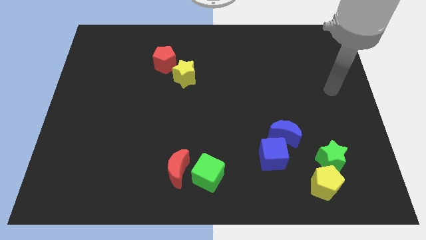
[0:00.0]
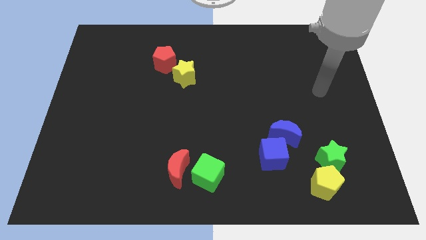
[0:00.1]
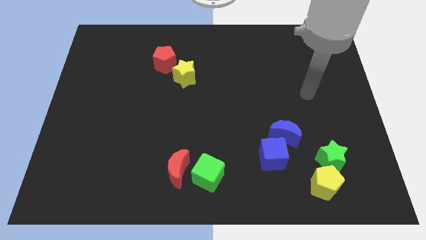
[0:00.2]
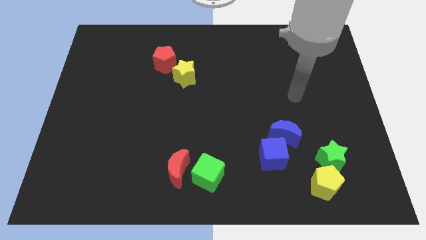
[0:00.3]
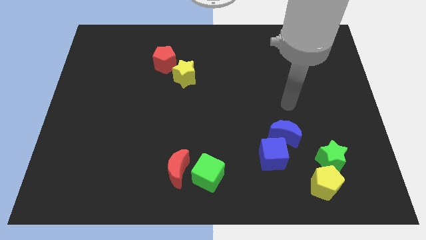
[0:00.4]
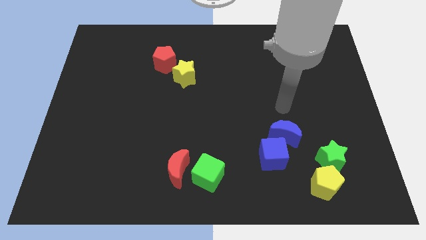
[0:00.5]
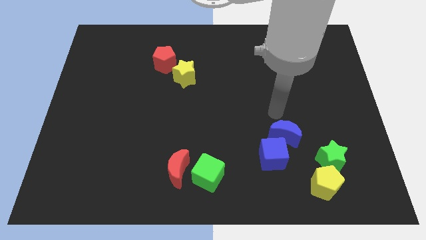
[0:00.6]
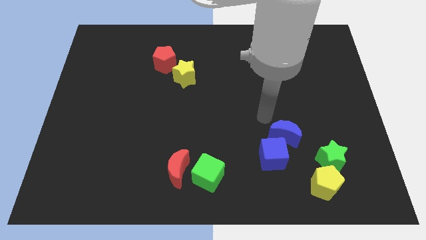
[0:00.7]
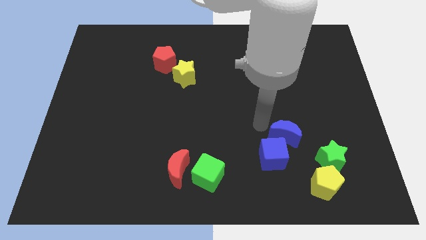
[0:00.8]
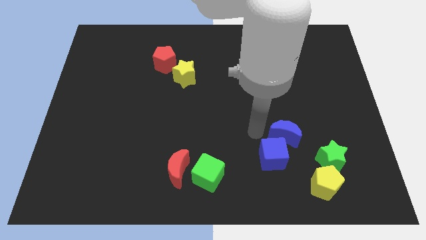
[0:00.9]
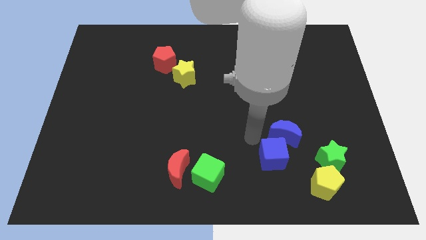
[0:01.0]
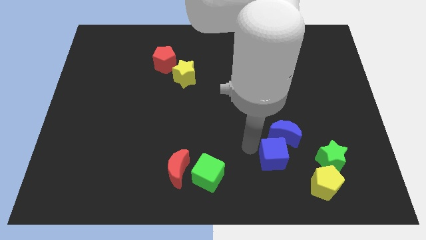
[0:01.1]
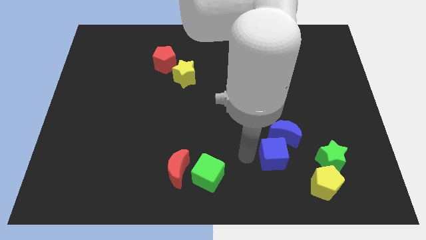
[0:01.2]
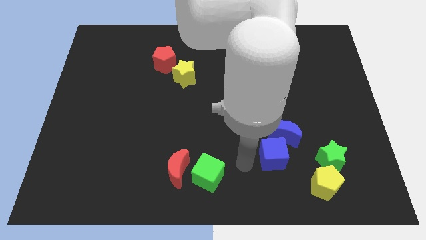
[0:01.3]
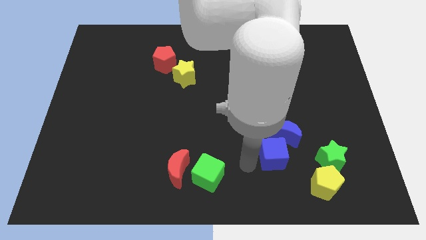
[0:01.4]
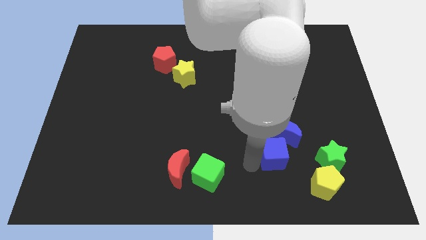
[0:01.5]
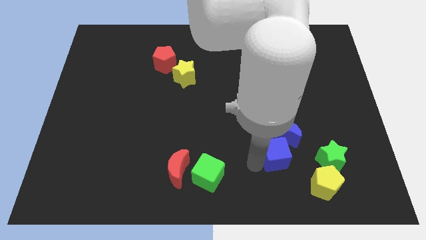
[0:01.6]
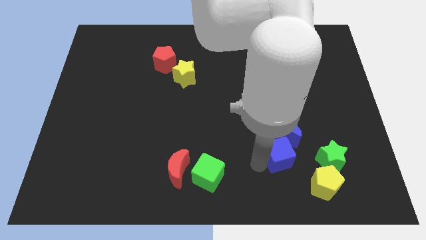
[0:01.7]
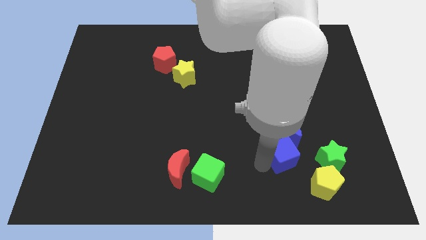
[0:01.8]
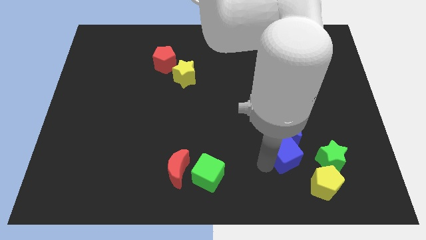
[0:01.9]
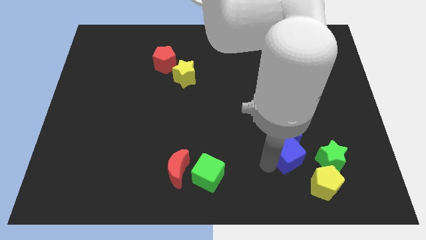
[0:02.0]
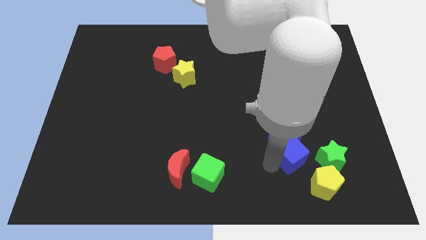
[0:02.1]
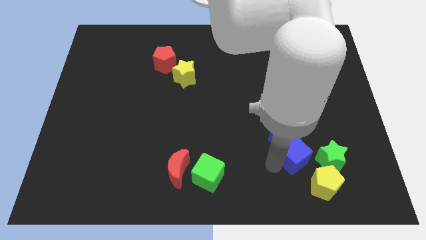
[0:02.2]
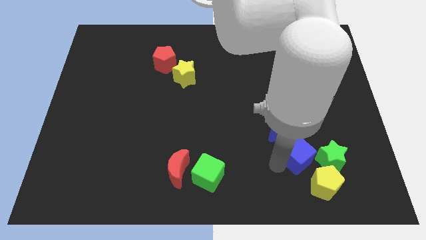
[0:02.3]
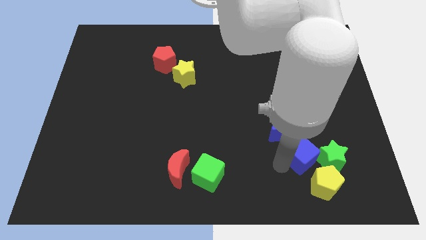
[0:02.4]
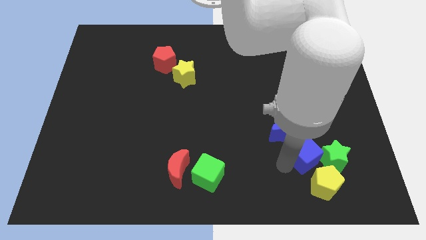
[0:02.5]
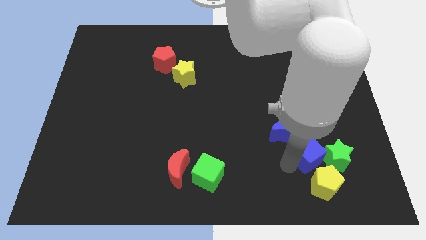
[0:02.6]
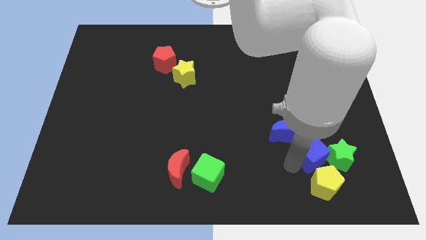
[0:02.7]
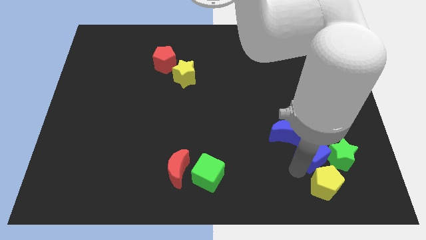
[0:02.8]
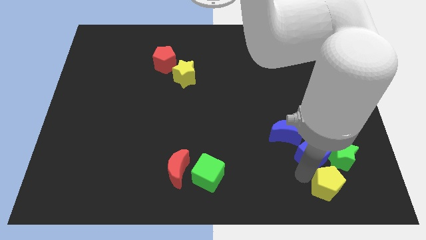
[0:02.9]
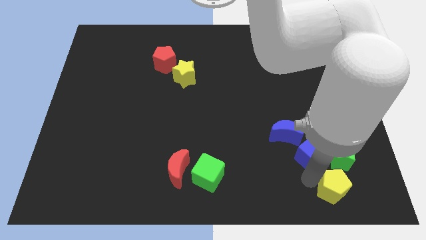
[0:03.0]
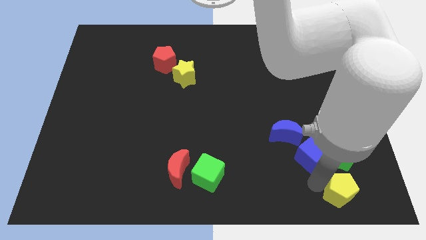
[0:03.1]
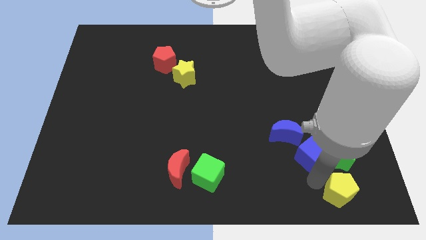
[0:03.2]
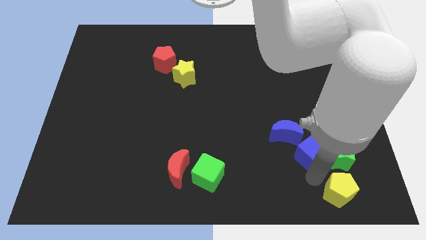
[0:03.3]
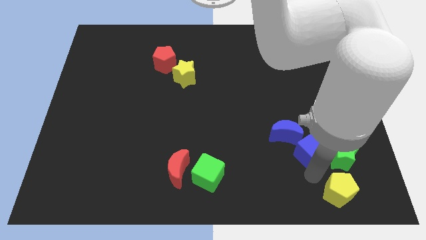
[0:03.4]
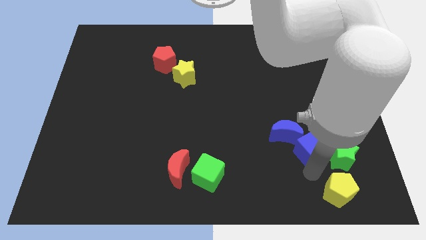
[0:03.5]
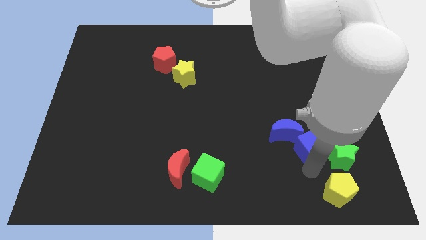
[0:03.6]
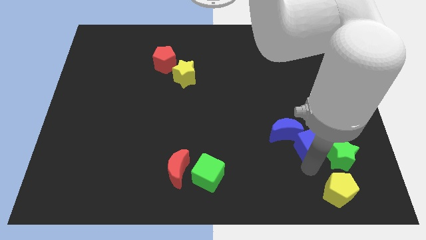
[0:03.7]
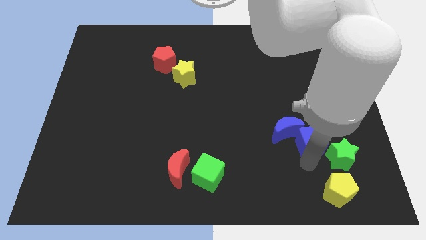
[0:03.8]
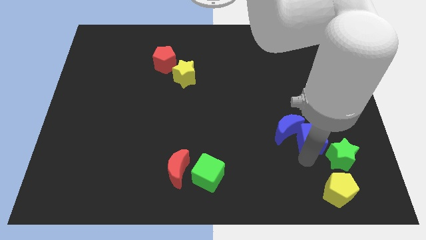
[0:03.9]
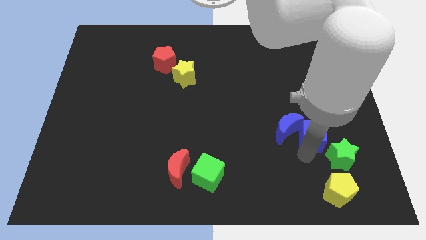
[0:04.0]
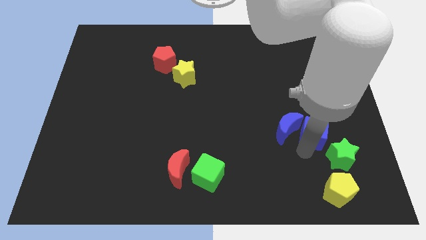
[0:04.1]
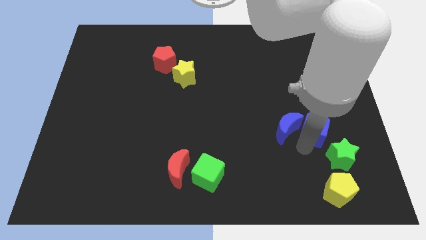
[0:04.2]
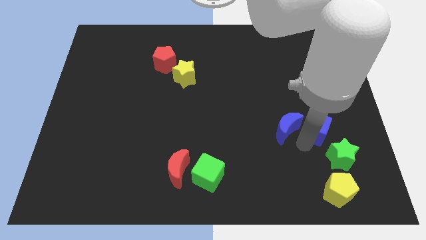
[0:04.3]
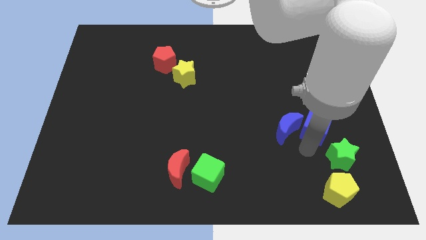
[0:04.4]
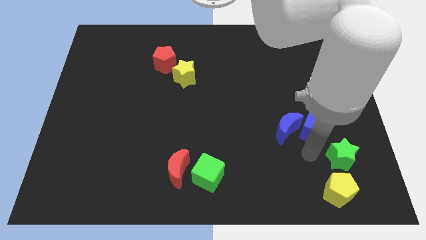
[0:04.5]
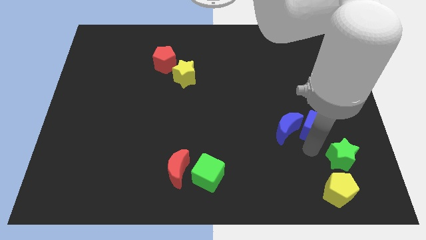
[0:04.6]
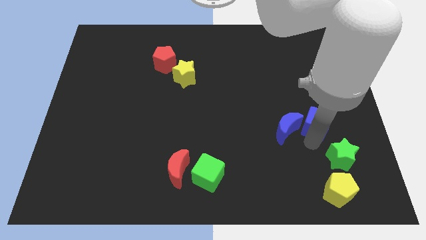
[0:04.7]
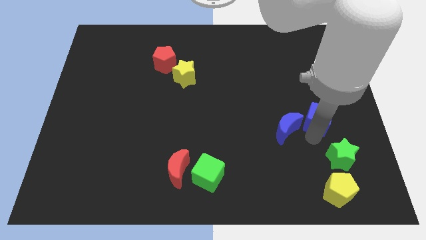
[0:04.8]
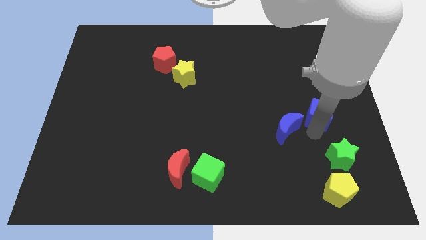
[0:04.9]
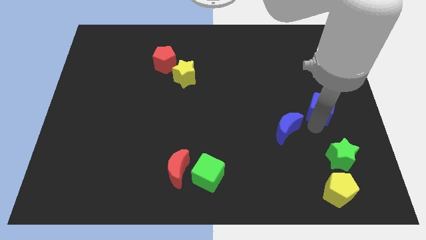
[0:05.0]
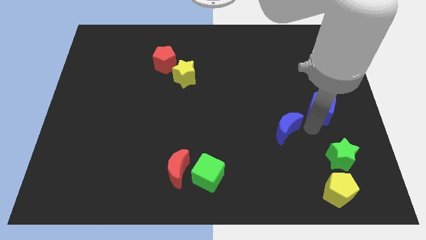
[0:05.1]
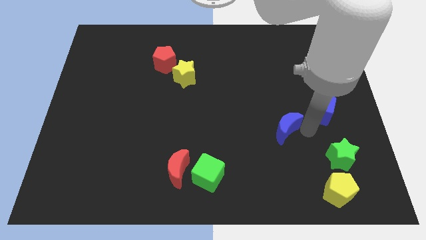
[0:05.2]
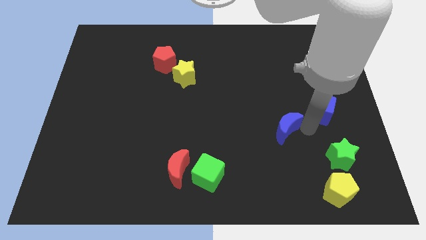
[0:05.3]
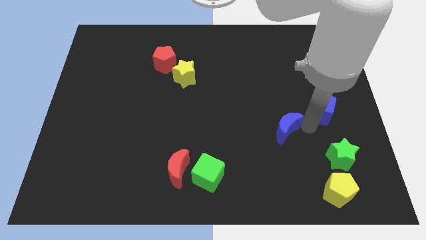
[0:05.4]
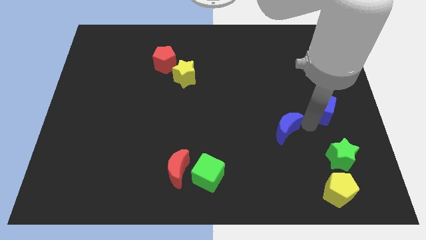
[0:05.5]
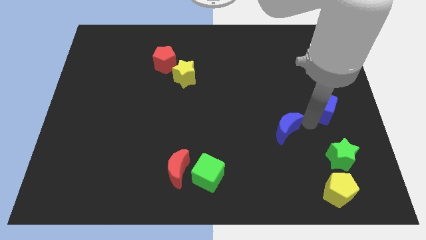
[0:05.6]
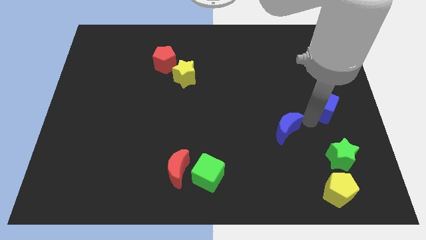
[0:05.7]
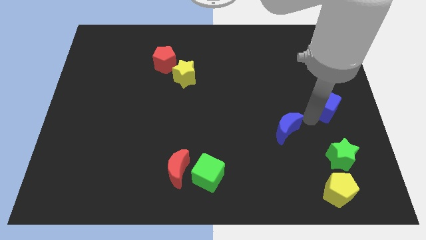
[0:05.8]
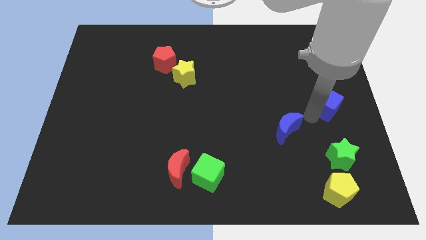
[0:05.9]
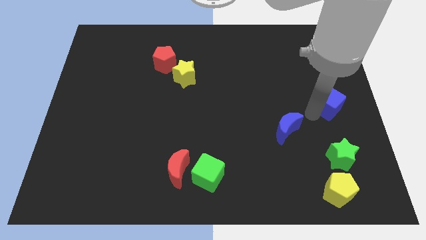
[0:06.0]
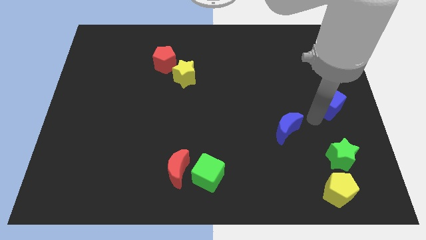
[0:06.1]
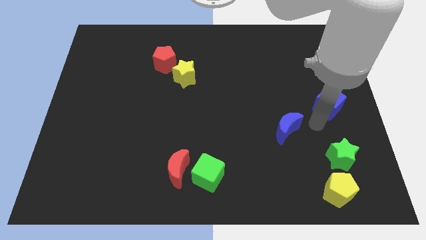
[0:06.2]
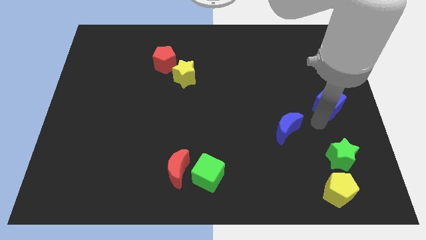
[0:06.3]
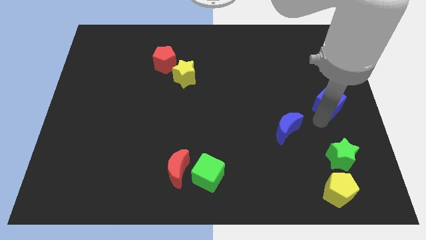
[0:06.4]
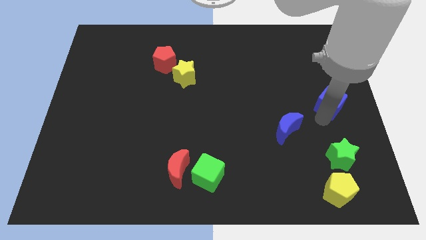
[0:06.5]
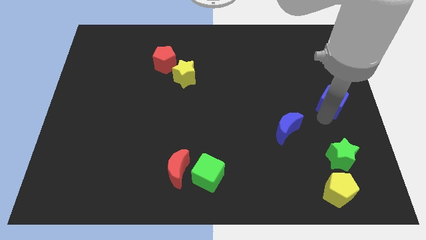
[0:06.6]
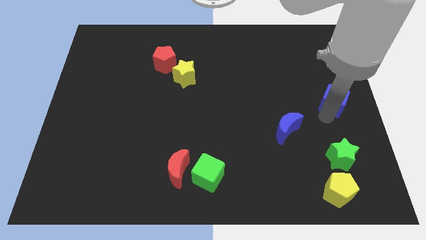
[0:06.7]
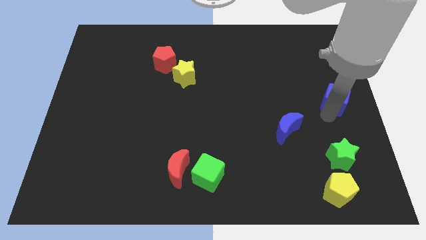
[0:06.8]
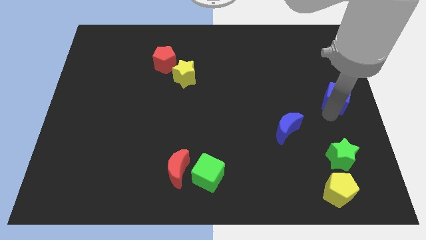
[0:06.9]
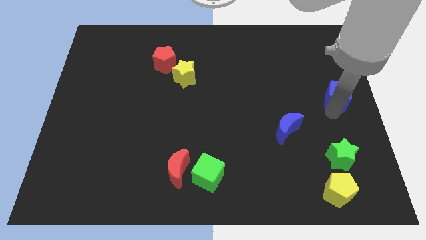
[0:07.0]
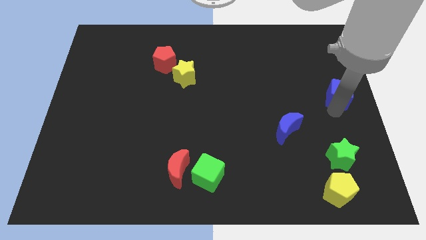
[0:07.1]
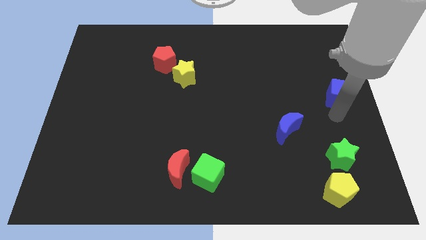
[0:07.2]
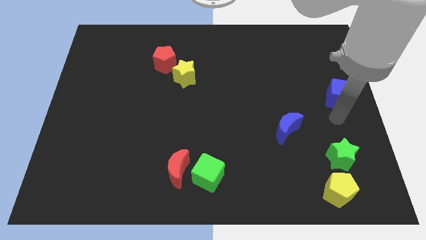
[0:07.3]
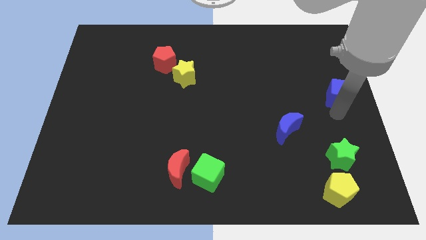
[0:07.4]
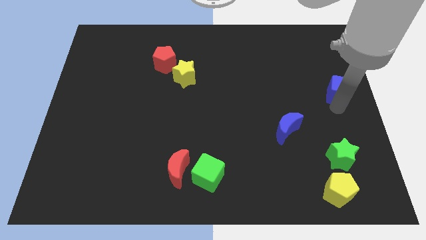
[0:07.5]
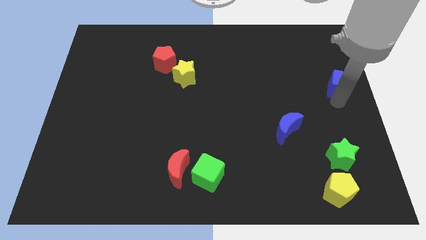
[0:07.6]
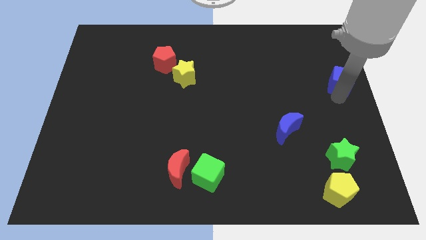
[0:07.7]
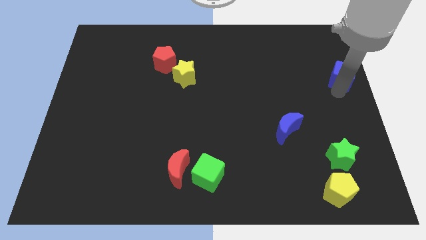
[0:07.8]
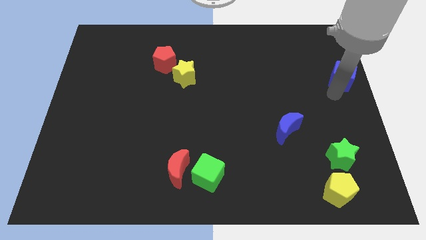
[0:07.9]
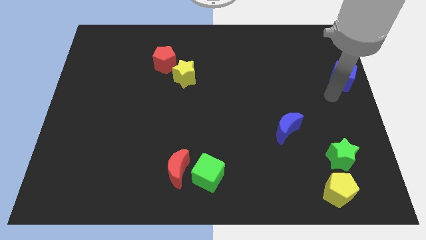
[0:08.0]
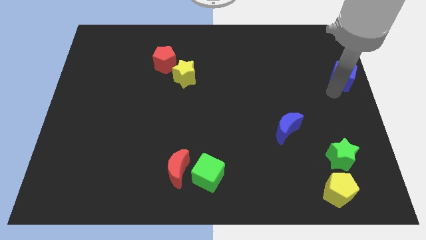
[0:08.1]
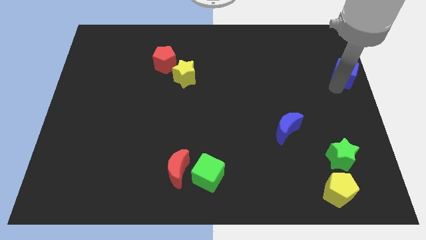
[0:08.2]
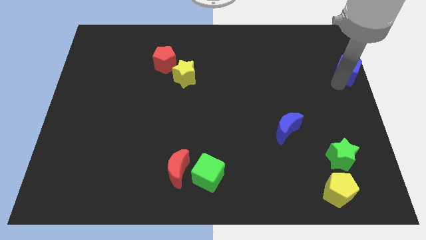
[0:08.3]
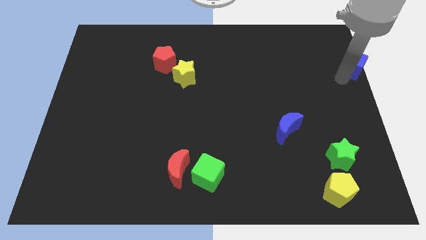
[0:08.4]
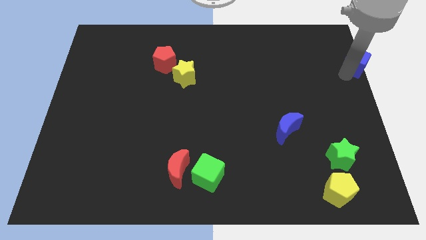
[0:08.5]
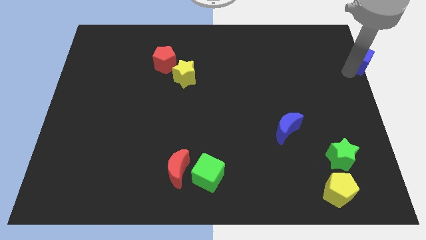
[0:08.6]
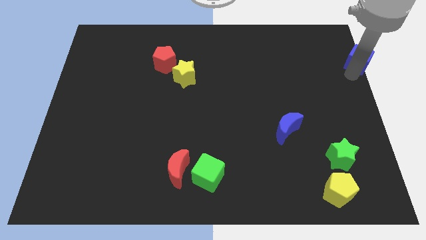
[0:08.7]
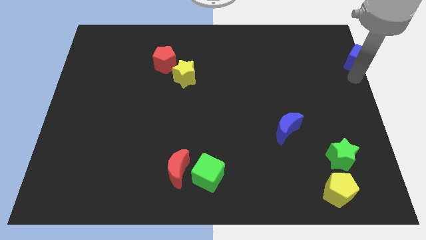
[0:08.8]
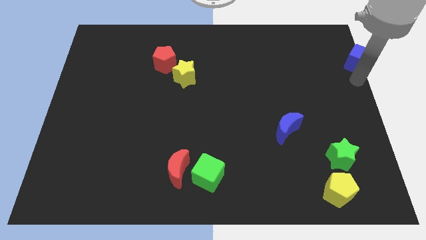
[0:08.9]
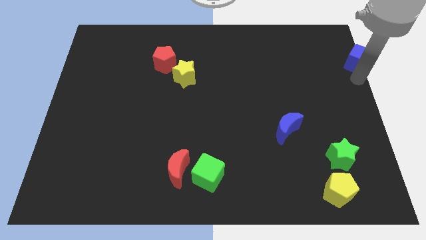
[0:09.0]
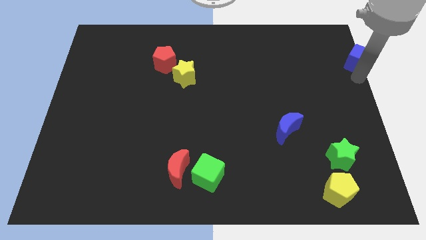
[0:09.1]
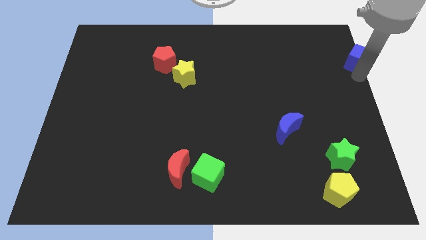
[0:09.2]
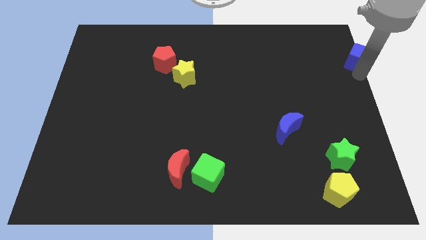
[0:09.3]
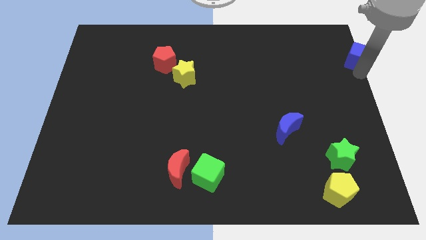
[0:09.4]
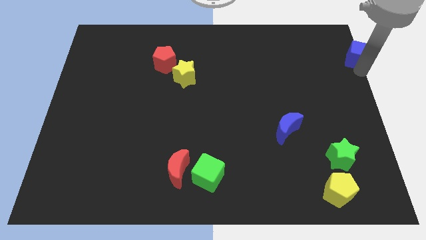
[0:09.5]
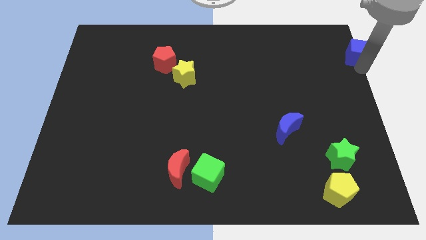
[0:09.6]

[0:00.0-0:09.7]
slide the blue cube to the top right corner
